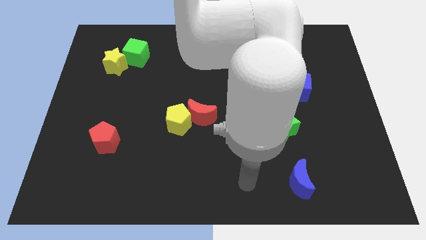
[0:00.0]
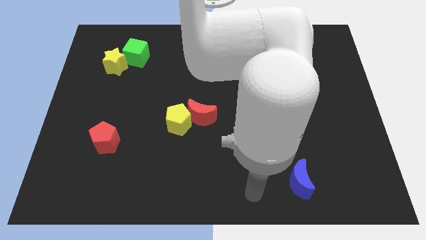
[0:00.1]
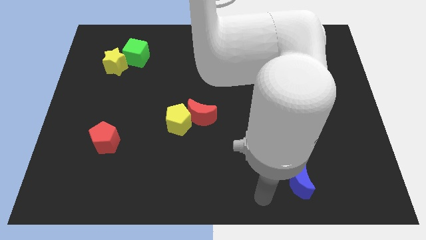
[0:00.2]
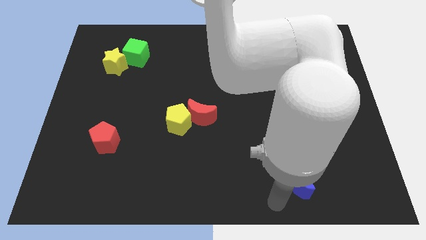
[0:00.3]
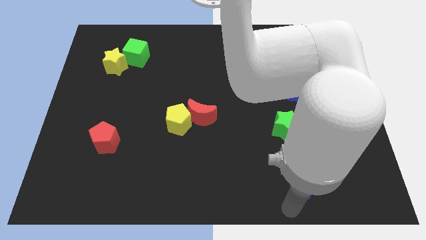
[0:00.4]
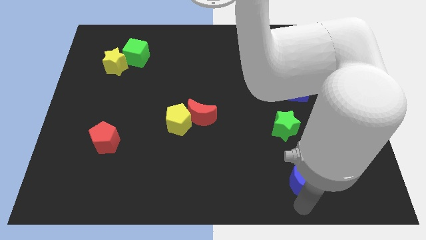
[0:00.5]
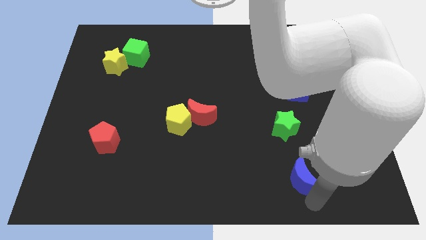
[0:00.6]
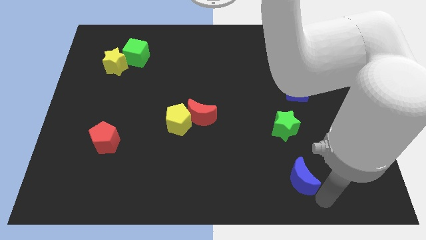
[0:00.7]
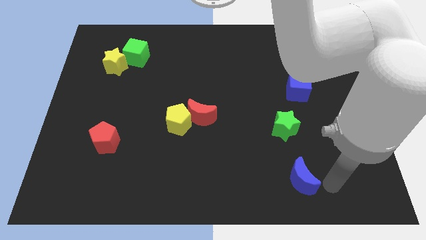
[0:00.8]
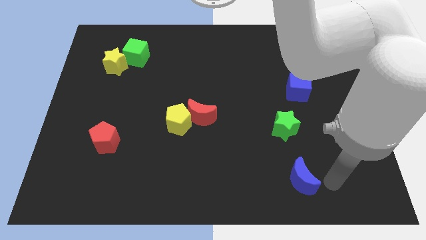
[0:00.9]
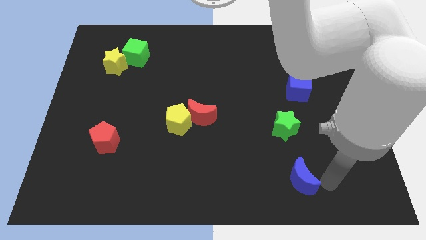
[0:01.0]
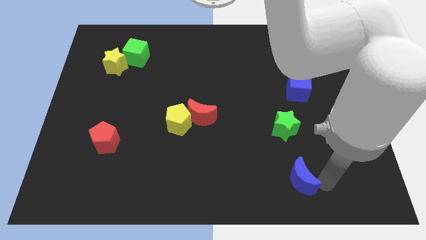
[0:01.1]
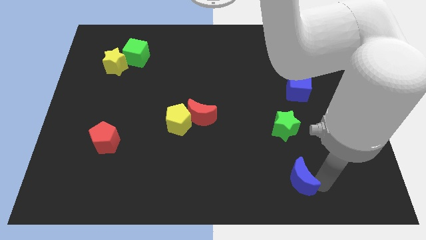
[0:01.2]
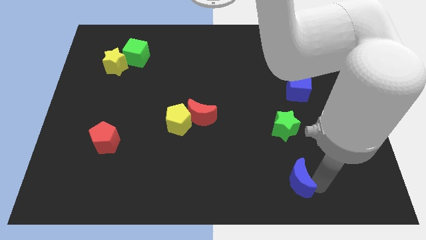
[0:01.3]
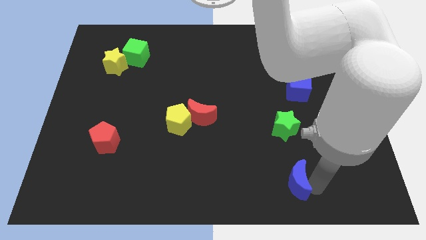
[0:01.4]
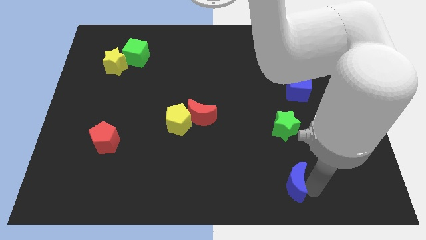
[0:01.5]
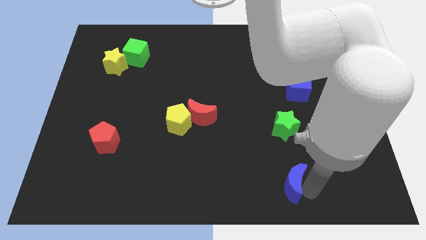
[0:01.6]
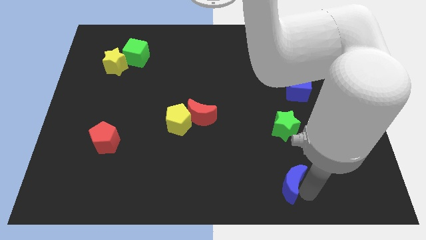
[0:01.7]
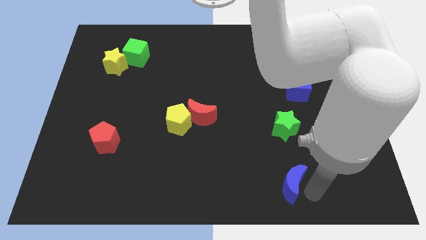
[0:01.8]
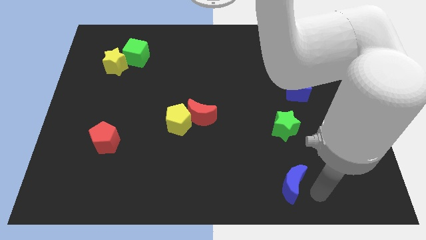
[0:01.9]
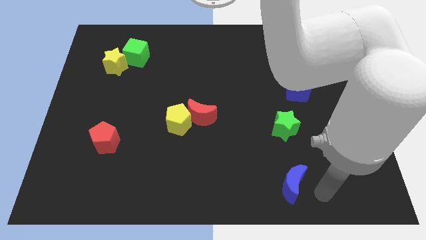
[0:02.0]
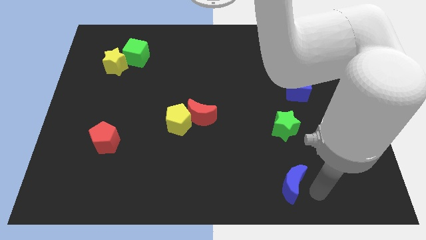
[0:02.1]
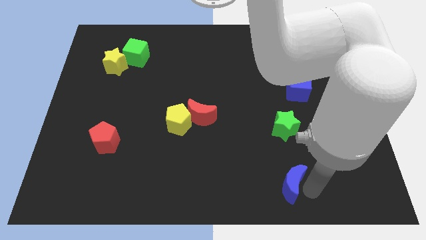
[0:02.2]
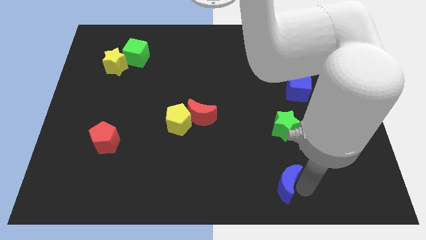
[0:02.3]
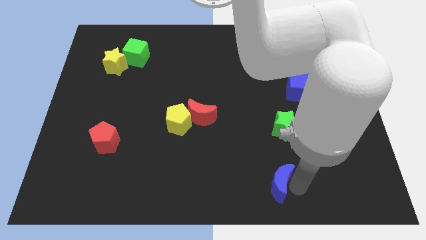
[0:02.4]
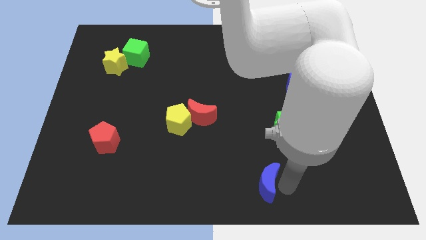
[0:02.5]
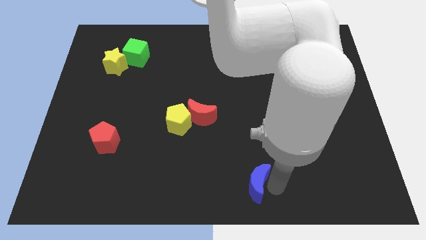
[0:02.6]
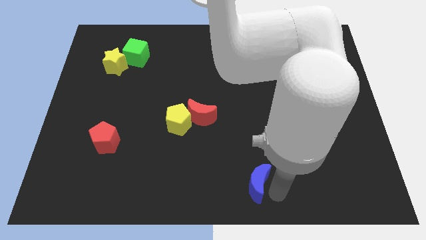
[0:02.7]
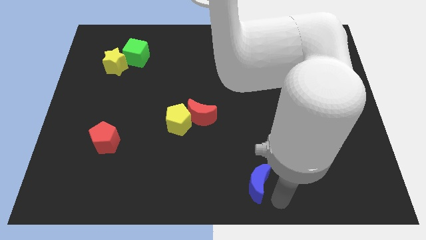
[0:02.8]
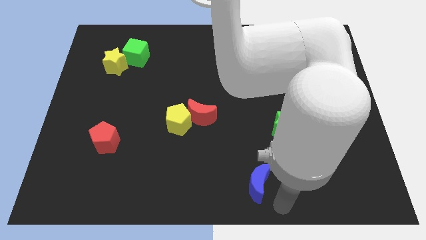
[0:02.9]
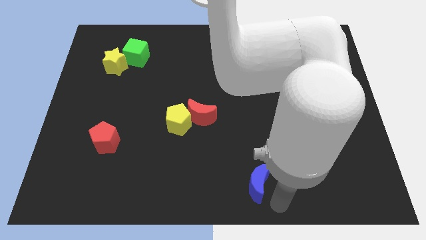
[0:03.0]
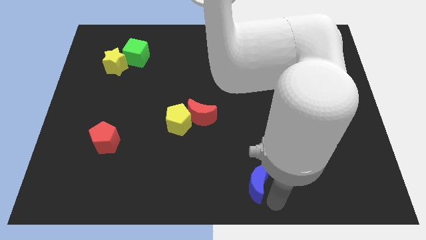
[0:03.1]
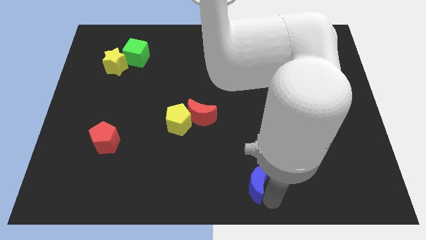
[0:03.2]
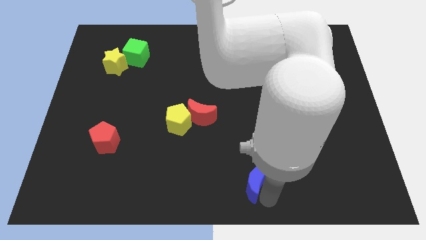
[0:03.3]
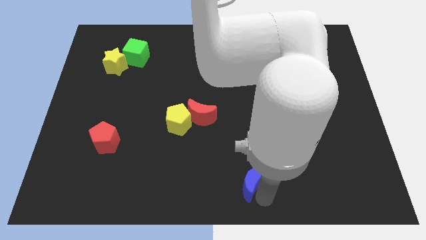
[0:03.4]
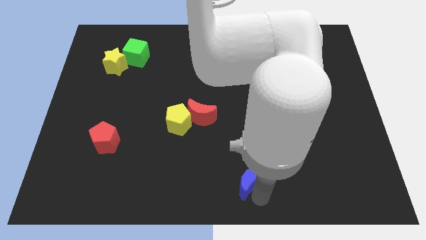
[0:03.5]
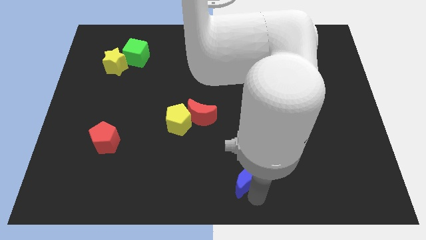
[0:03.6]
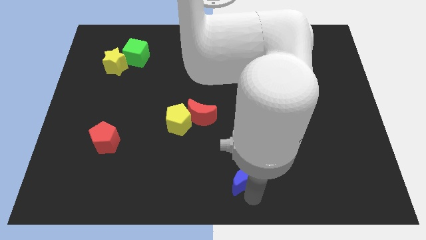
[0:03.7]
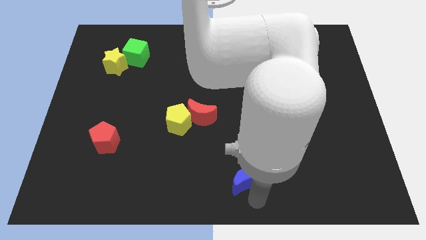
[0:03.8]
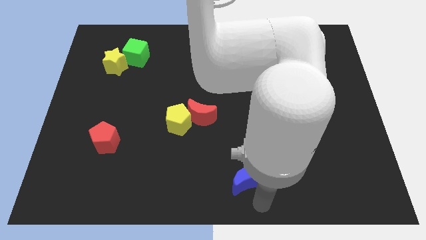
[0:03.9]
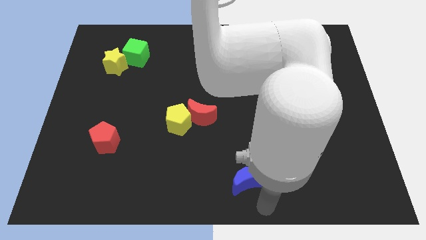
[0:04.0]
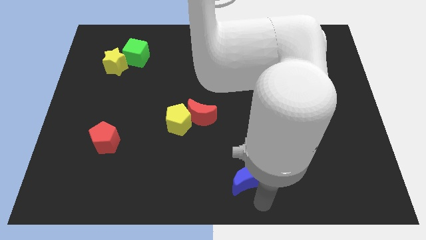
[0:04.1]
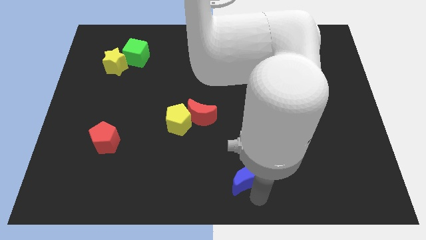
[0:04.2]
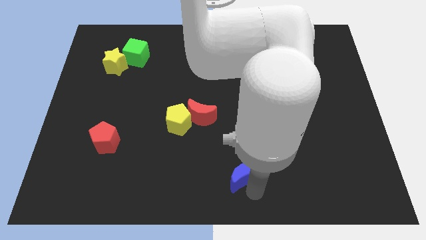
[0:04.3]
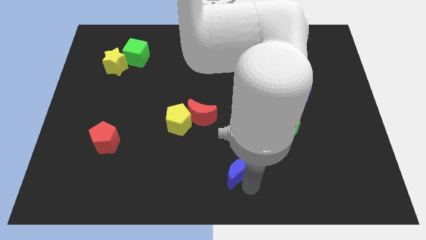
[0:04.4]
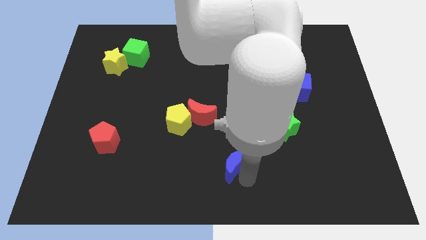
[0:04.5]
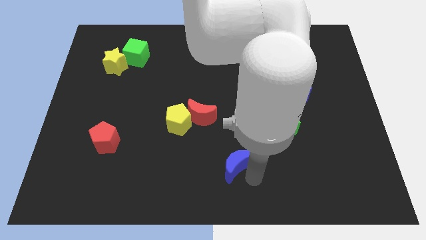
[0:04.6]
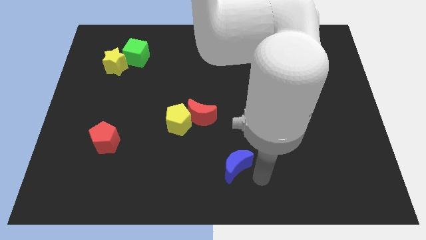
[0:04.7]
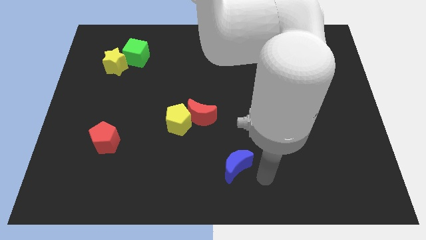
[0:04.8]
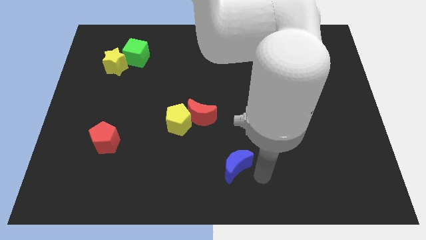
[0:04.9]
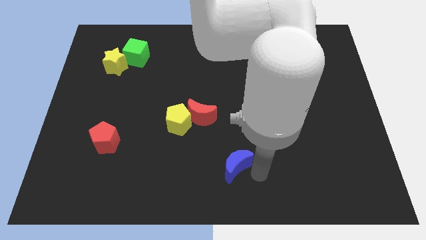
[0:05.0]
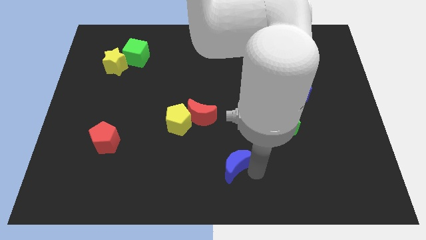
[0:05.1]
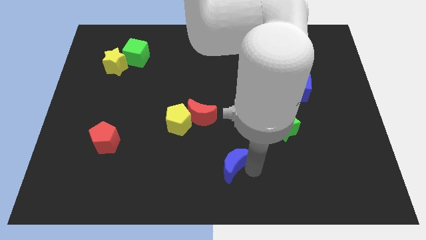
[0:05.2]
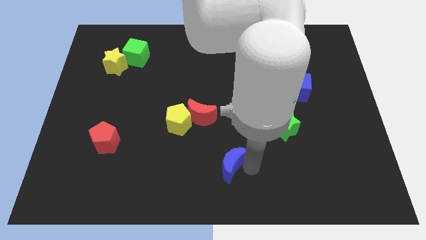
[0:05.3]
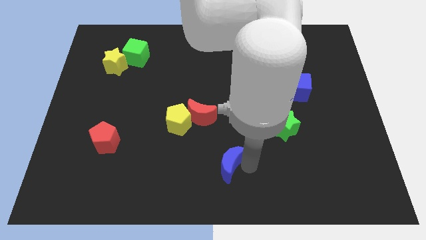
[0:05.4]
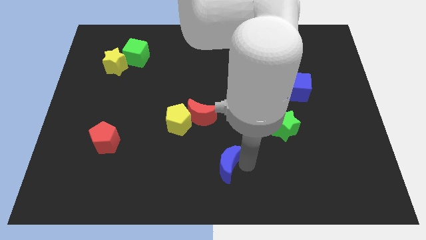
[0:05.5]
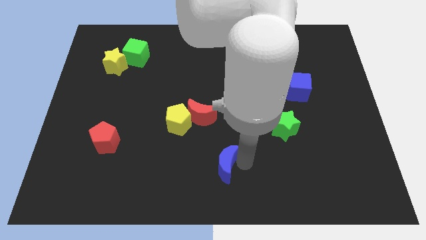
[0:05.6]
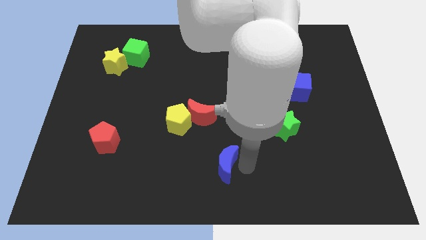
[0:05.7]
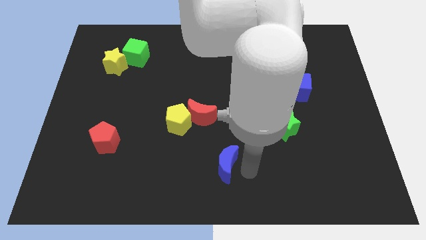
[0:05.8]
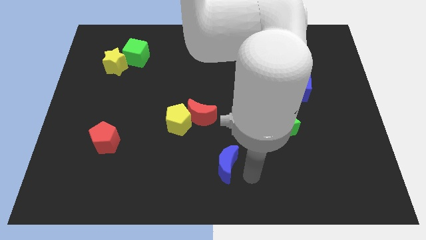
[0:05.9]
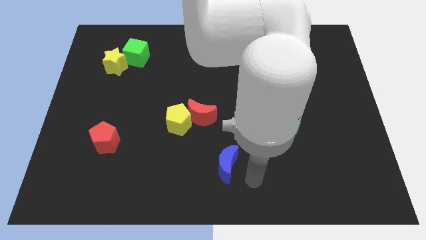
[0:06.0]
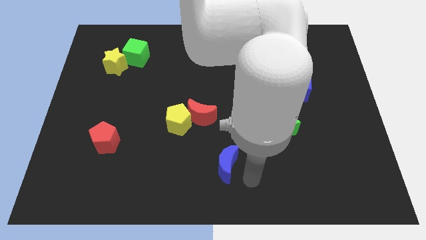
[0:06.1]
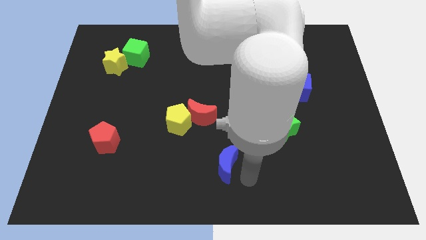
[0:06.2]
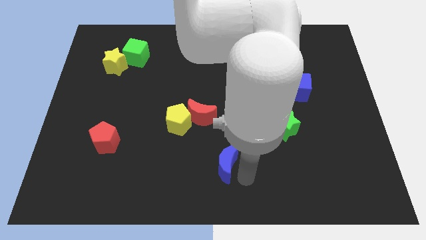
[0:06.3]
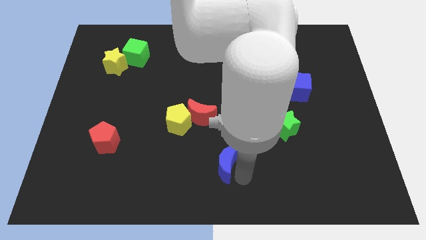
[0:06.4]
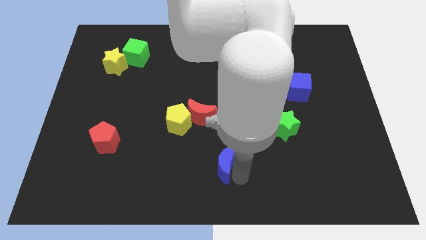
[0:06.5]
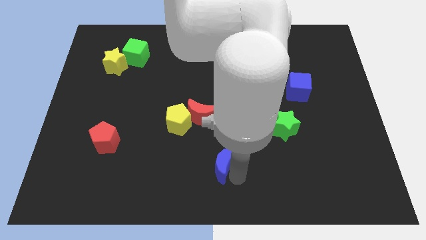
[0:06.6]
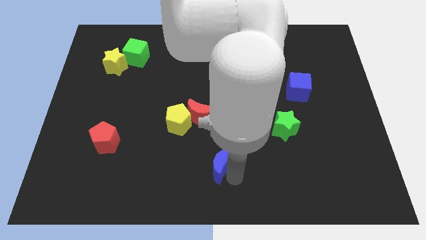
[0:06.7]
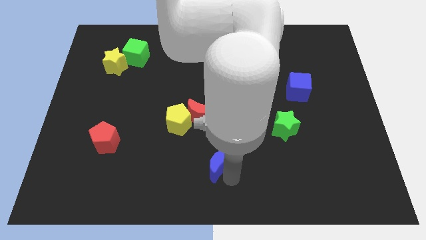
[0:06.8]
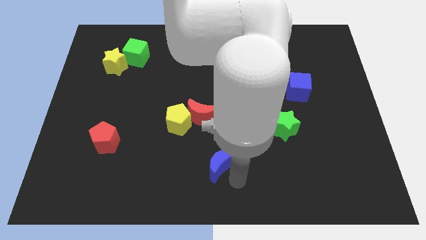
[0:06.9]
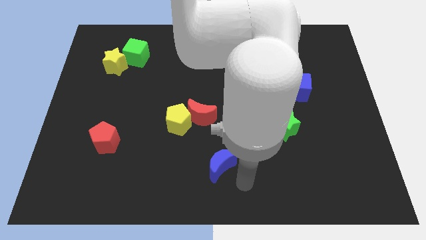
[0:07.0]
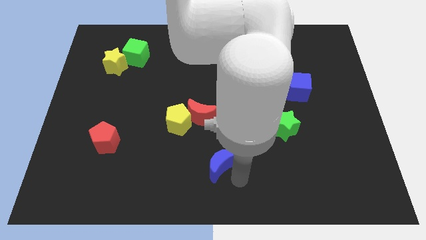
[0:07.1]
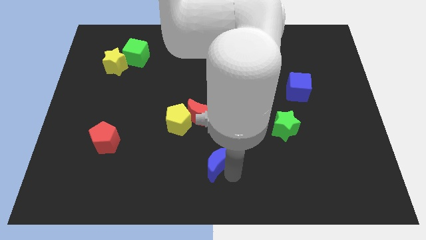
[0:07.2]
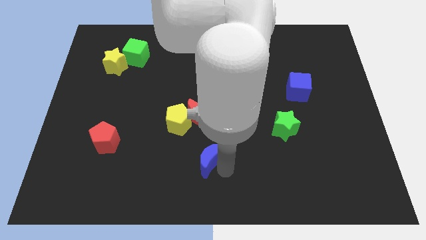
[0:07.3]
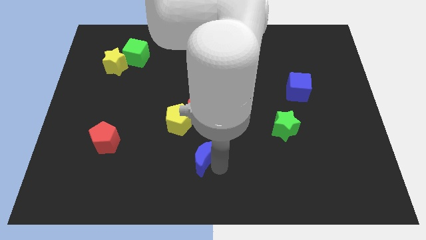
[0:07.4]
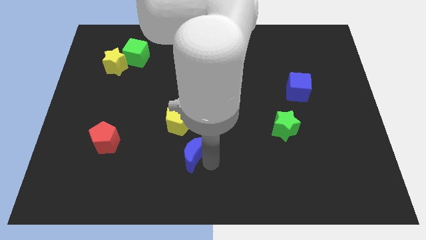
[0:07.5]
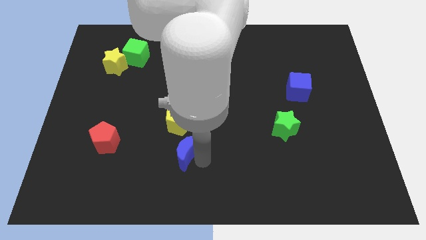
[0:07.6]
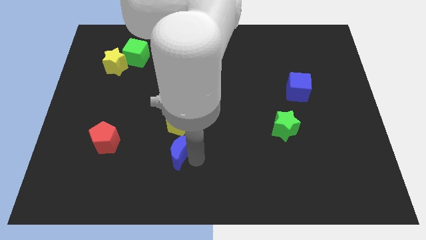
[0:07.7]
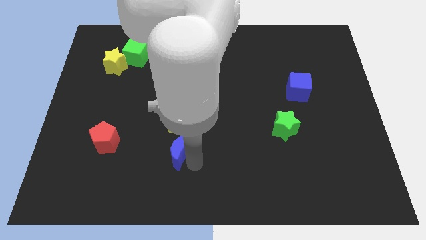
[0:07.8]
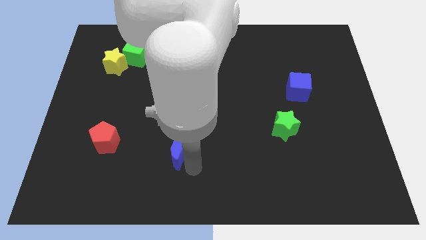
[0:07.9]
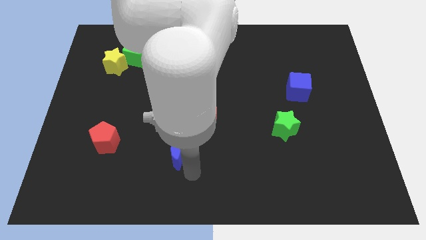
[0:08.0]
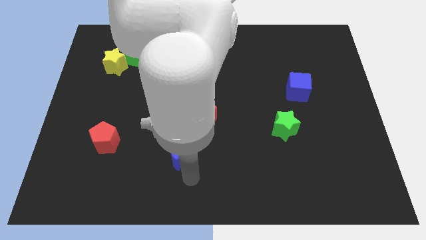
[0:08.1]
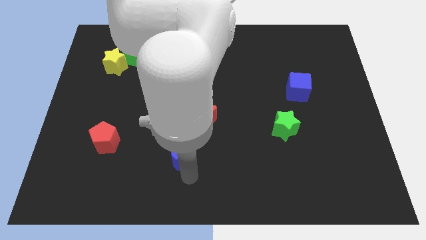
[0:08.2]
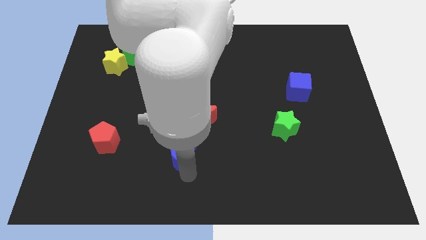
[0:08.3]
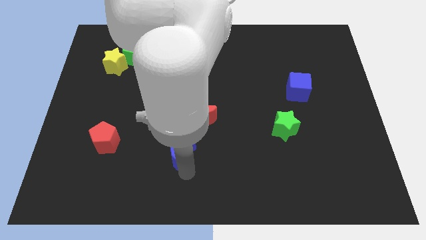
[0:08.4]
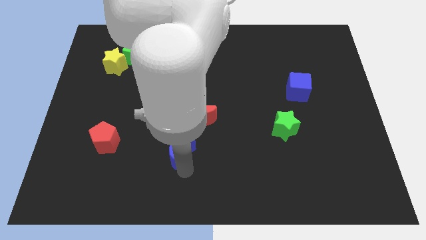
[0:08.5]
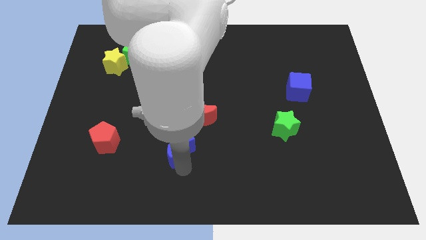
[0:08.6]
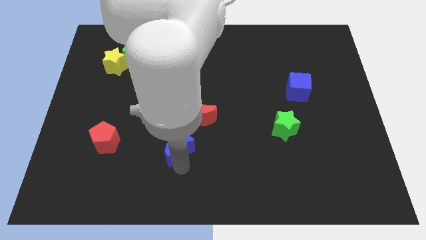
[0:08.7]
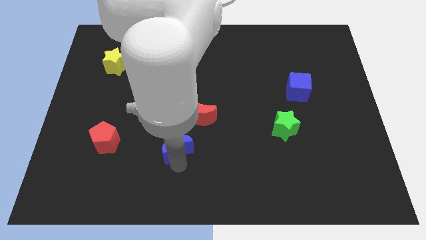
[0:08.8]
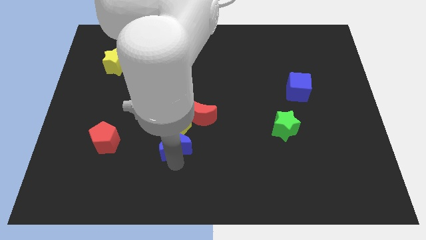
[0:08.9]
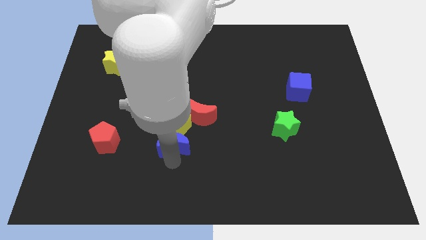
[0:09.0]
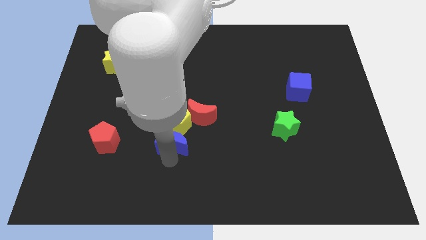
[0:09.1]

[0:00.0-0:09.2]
slide the blue moon towards the yellow pentagon
